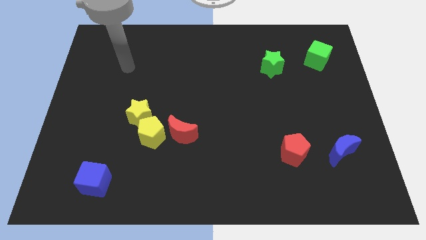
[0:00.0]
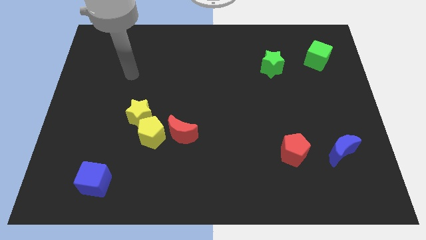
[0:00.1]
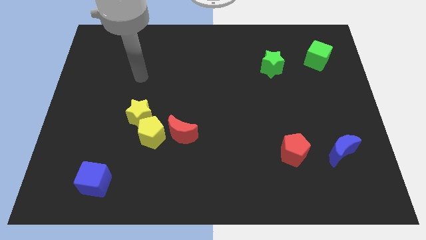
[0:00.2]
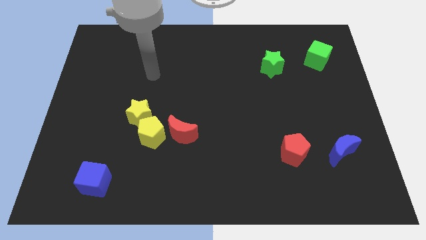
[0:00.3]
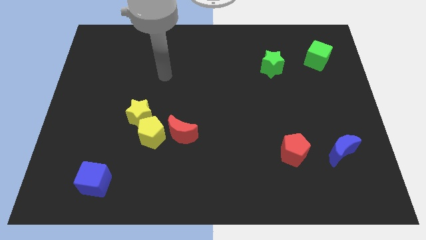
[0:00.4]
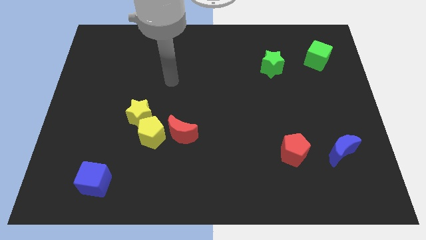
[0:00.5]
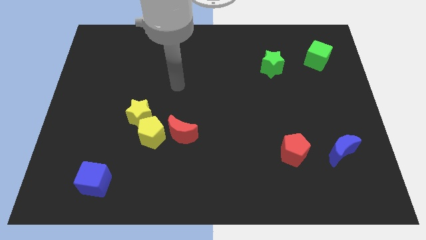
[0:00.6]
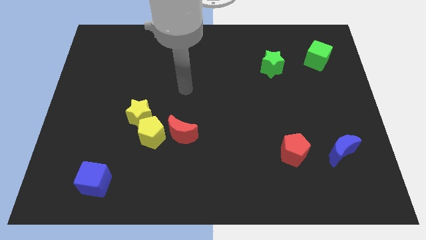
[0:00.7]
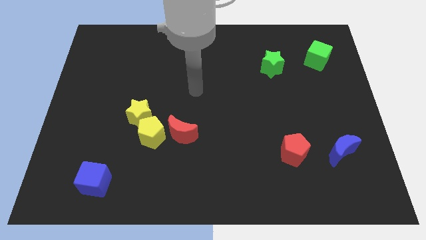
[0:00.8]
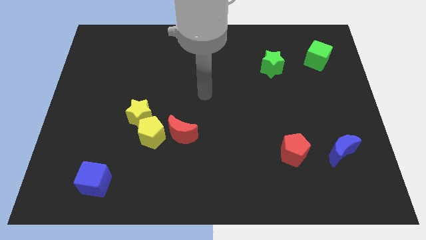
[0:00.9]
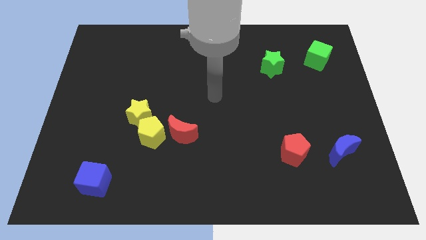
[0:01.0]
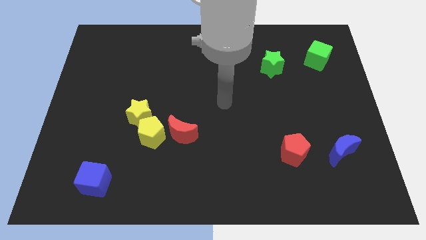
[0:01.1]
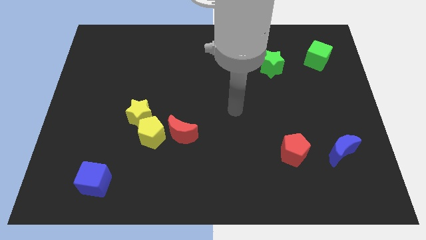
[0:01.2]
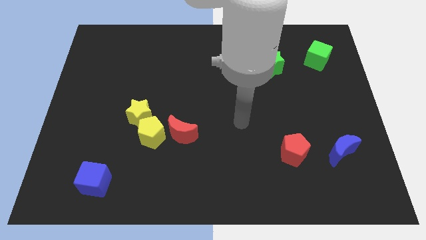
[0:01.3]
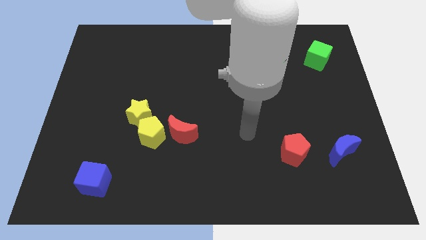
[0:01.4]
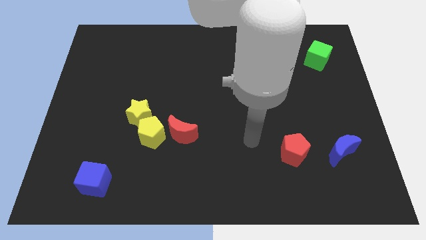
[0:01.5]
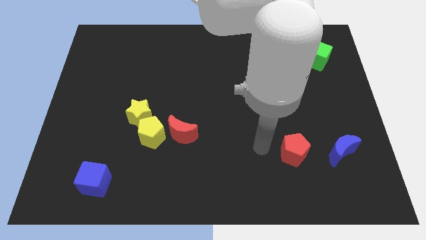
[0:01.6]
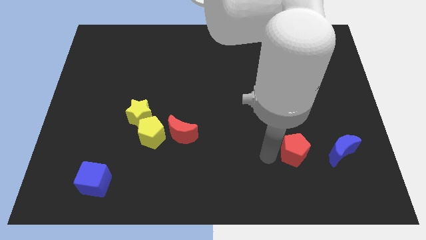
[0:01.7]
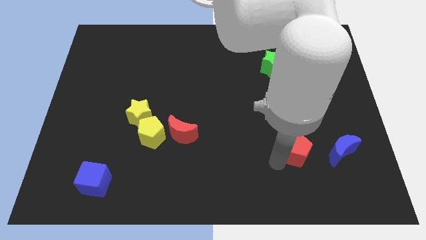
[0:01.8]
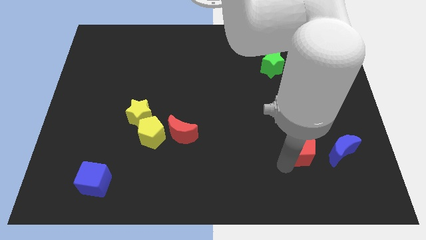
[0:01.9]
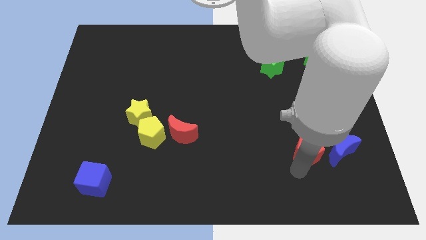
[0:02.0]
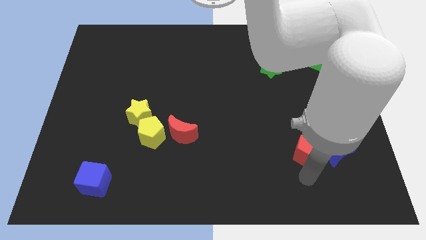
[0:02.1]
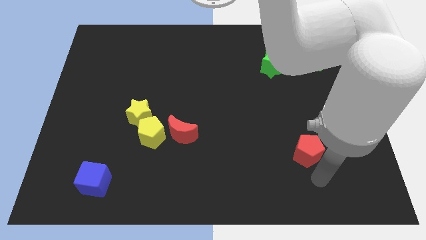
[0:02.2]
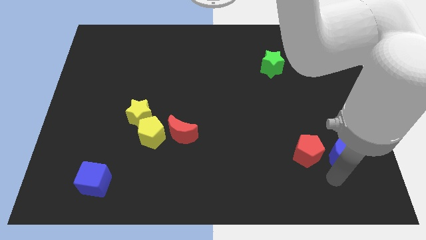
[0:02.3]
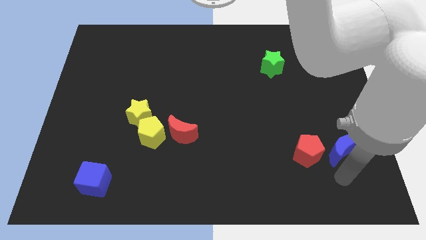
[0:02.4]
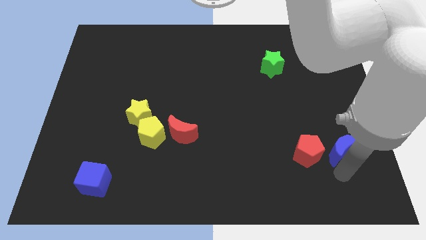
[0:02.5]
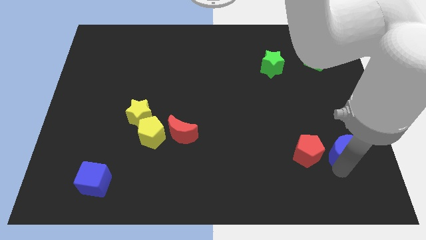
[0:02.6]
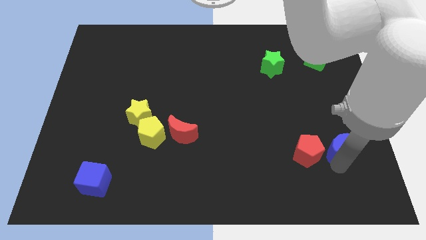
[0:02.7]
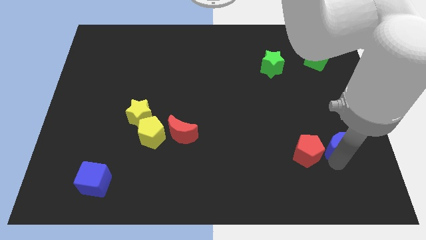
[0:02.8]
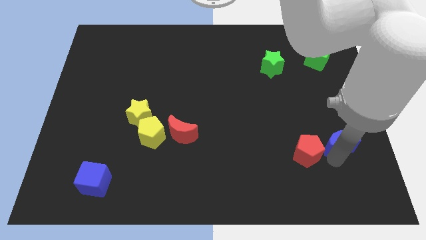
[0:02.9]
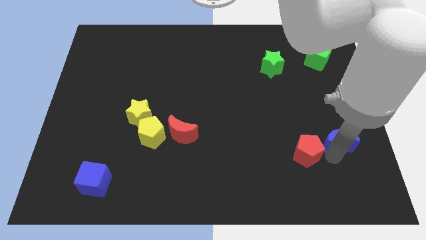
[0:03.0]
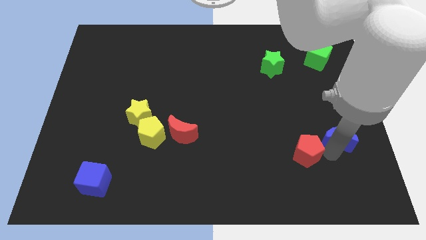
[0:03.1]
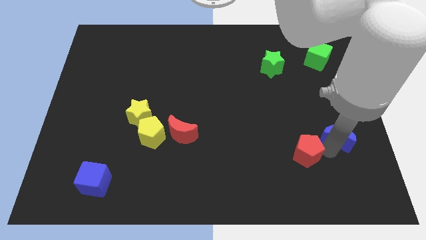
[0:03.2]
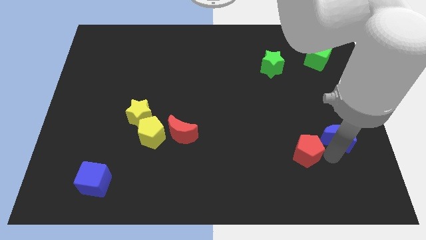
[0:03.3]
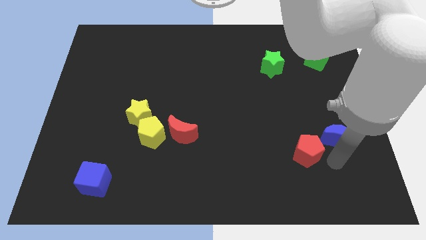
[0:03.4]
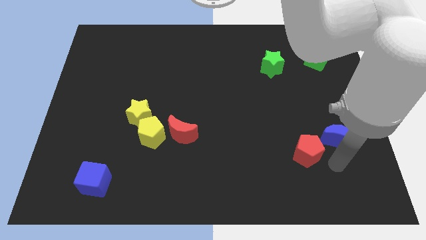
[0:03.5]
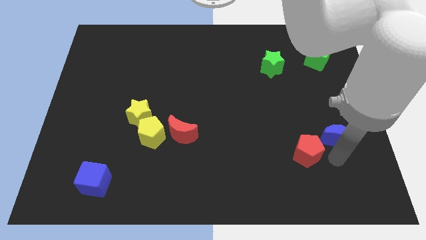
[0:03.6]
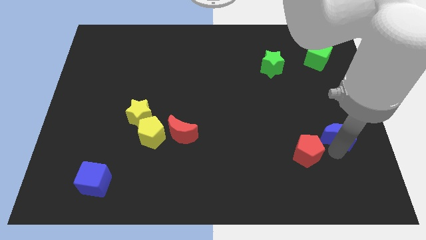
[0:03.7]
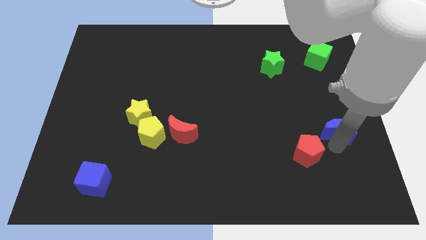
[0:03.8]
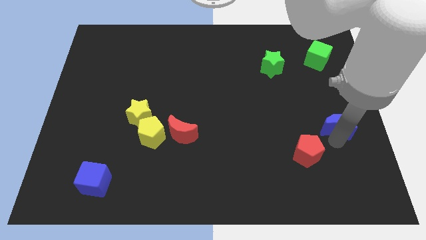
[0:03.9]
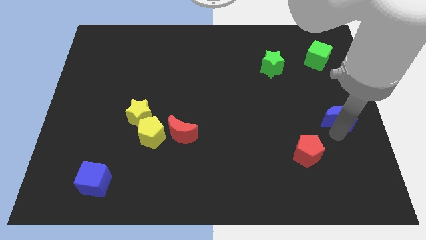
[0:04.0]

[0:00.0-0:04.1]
move the blue moon somewhat up

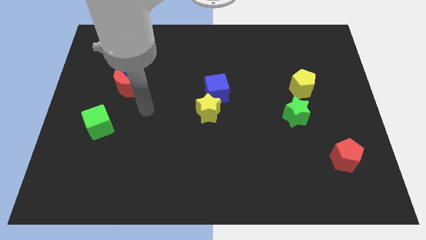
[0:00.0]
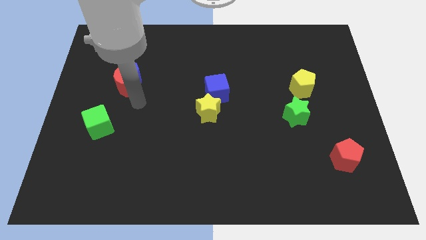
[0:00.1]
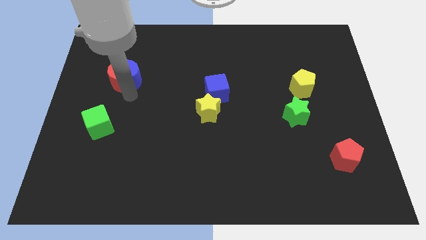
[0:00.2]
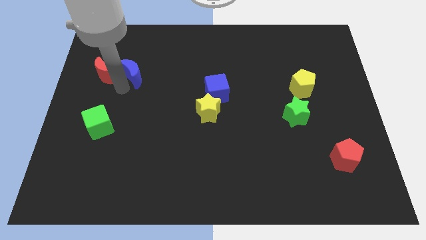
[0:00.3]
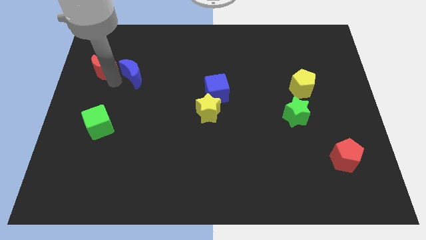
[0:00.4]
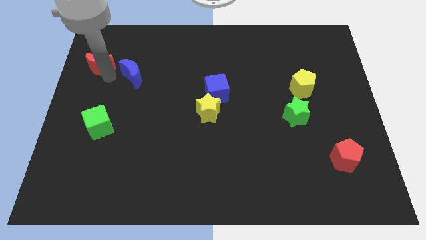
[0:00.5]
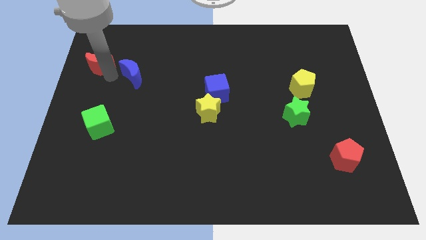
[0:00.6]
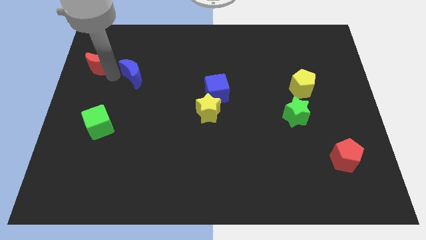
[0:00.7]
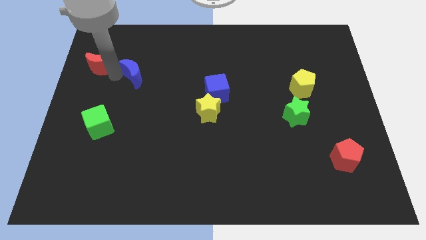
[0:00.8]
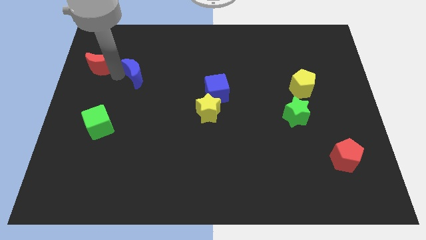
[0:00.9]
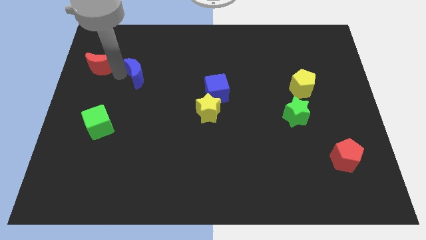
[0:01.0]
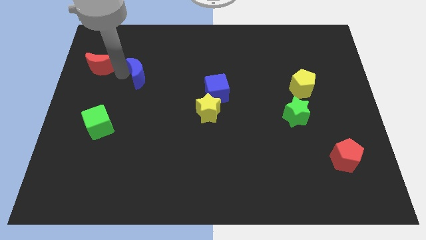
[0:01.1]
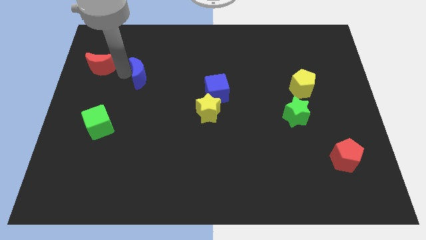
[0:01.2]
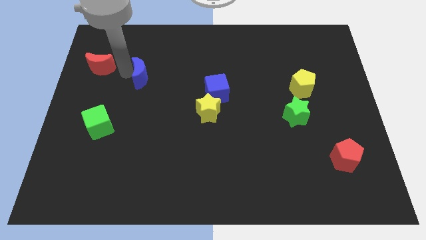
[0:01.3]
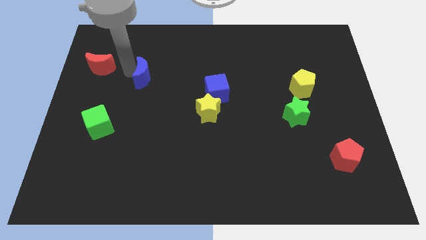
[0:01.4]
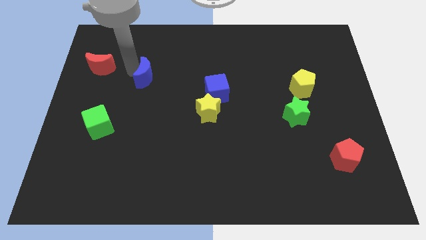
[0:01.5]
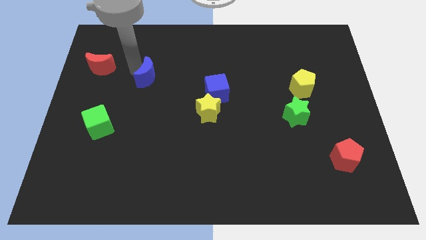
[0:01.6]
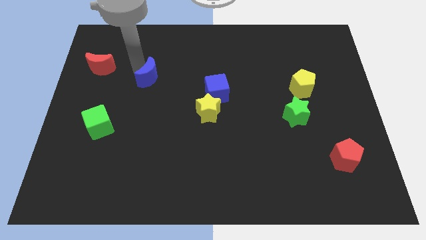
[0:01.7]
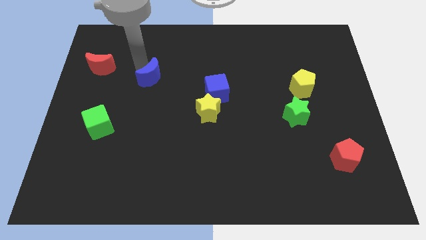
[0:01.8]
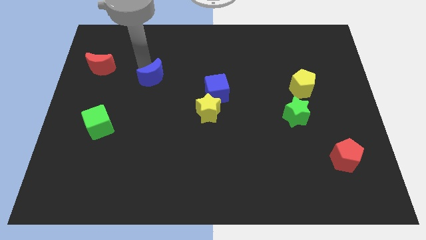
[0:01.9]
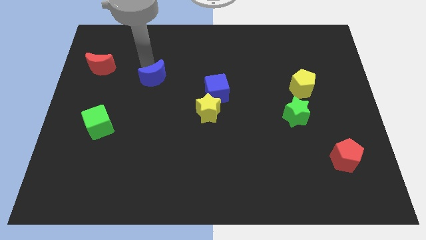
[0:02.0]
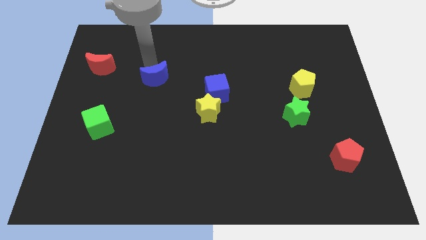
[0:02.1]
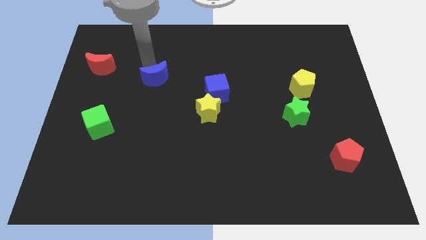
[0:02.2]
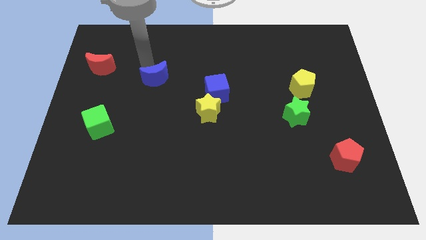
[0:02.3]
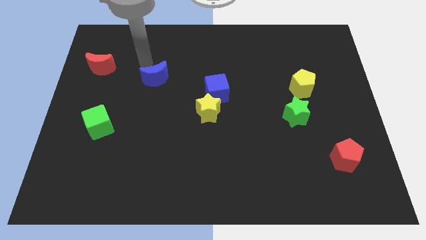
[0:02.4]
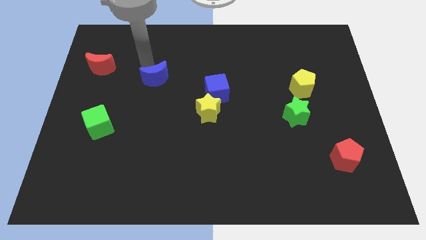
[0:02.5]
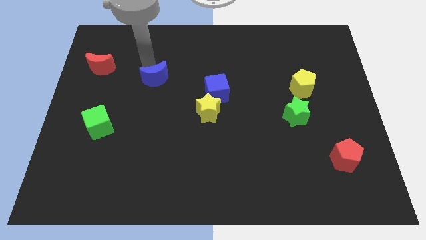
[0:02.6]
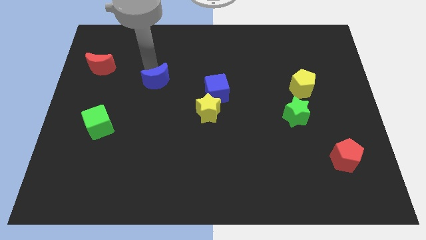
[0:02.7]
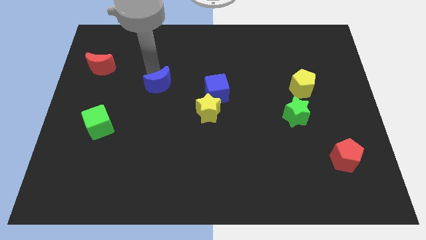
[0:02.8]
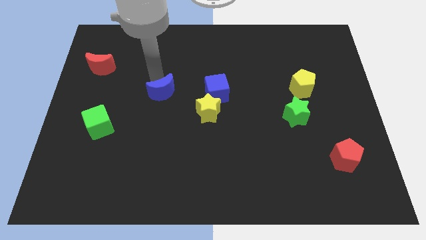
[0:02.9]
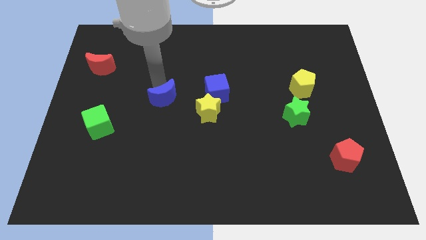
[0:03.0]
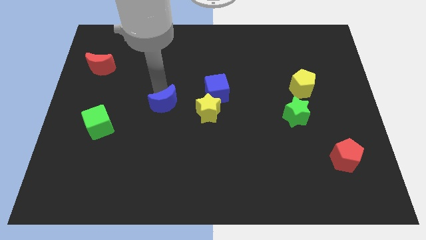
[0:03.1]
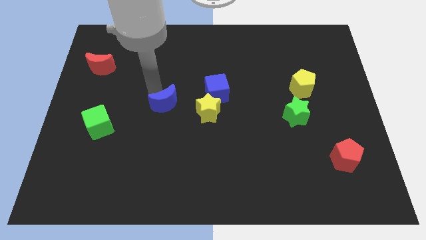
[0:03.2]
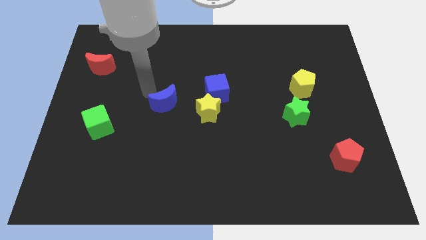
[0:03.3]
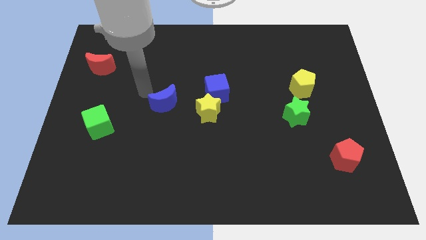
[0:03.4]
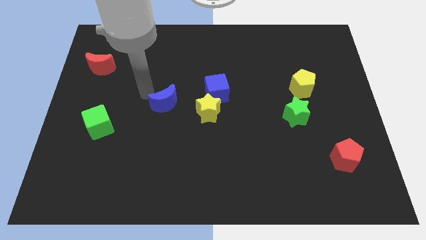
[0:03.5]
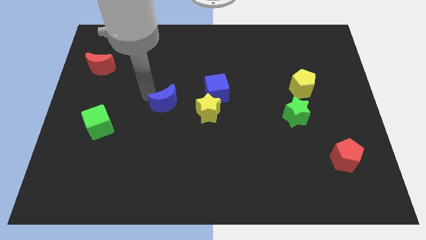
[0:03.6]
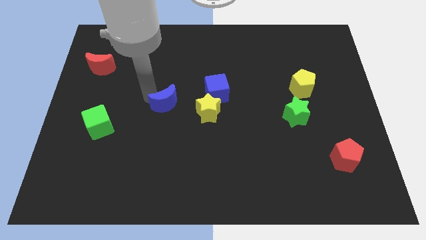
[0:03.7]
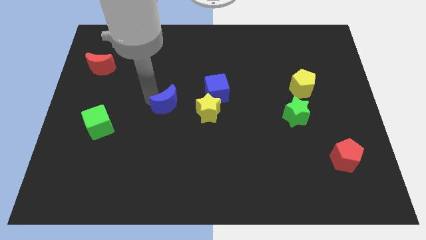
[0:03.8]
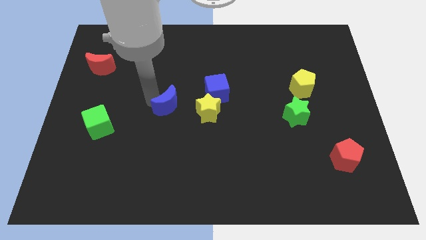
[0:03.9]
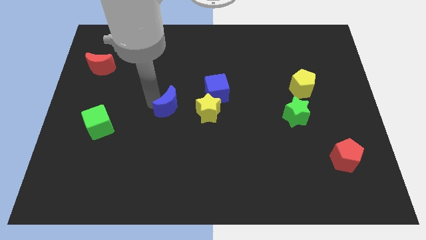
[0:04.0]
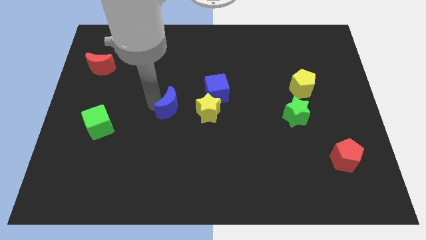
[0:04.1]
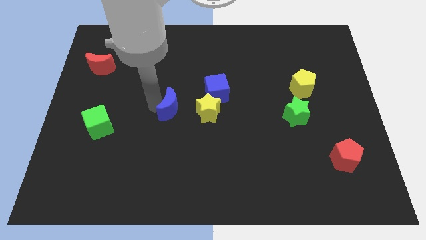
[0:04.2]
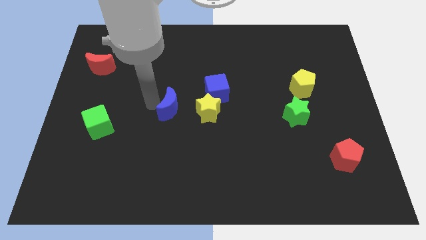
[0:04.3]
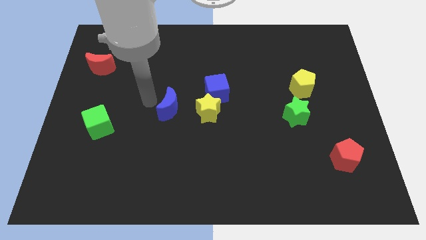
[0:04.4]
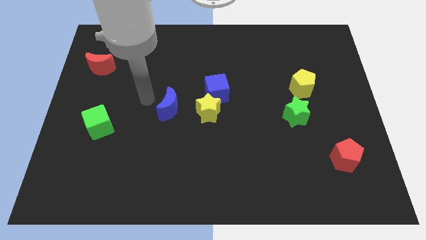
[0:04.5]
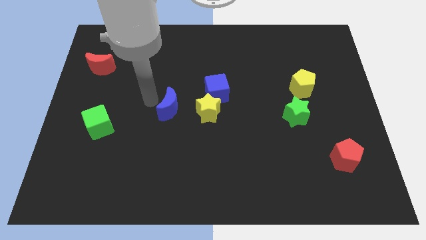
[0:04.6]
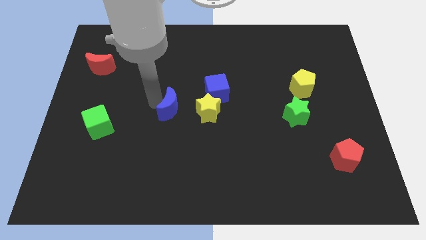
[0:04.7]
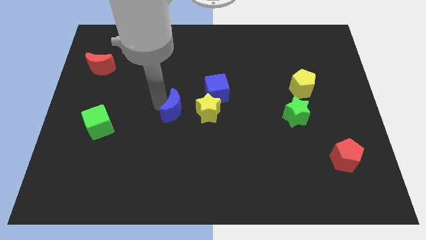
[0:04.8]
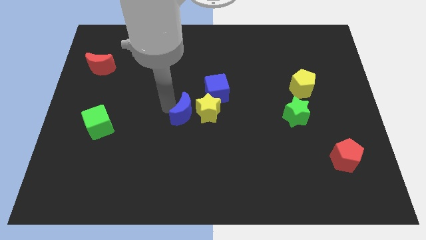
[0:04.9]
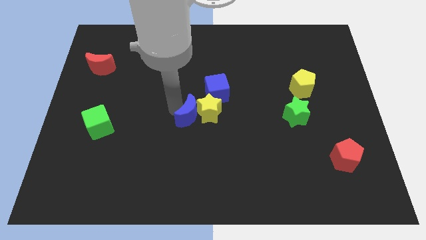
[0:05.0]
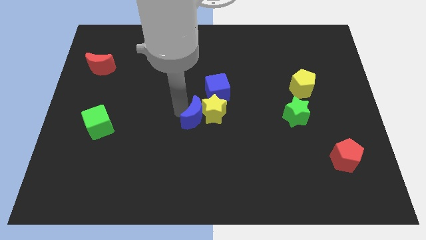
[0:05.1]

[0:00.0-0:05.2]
push the blue moon diagonally downwards and right
